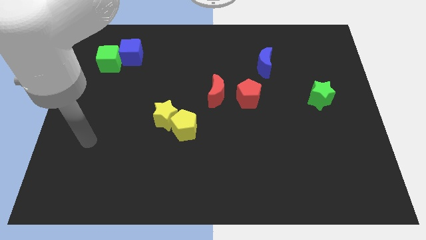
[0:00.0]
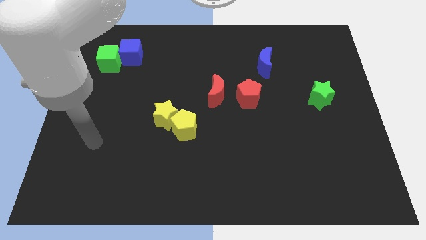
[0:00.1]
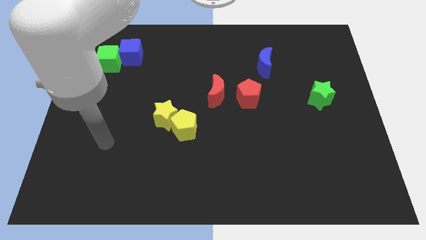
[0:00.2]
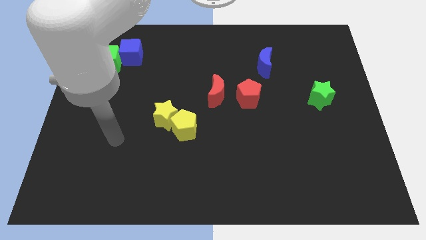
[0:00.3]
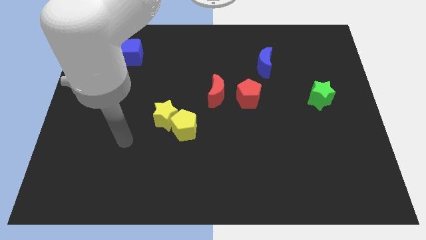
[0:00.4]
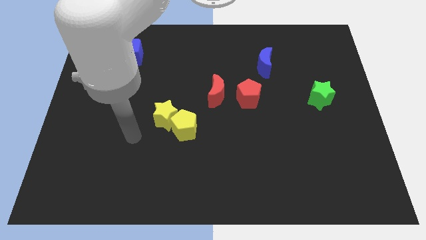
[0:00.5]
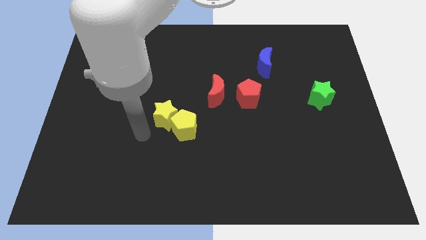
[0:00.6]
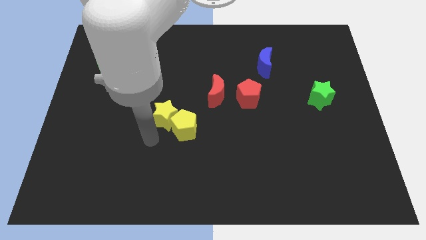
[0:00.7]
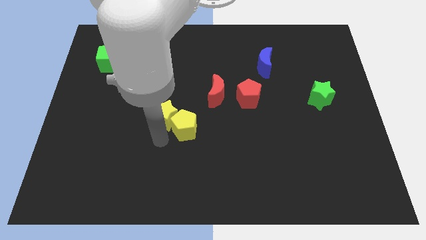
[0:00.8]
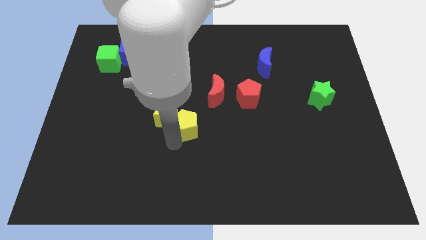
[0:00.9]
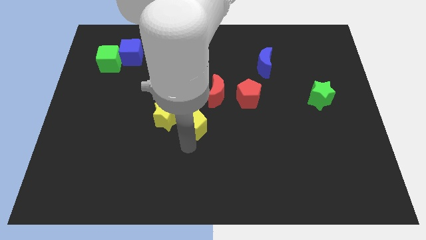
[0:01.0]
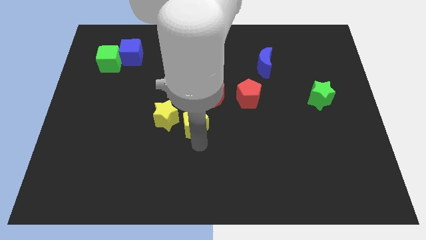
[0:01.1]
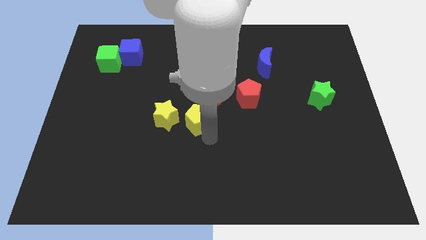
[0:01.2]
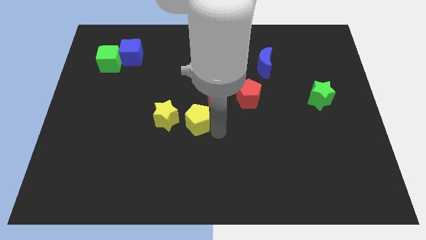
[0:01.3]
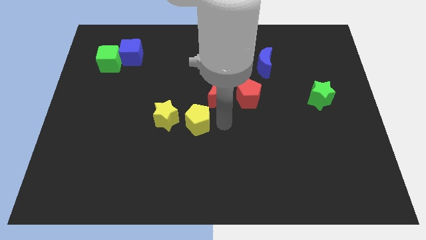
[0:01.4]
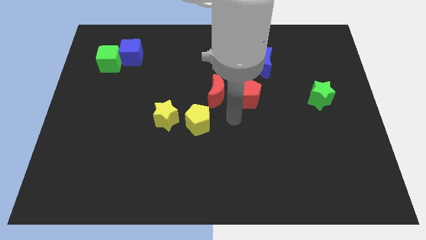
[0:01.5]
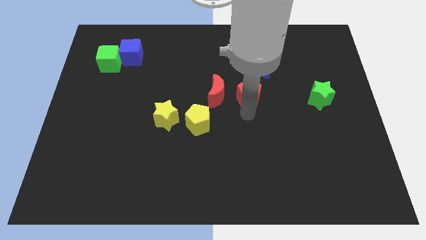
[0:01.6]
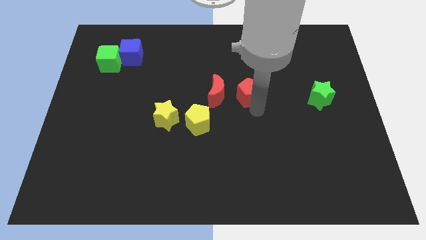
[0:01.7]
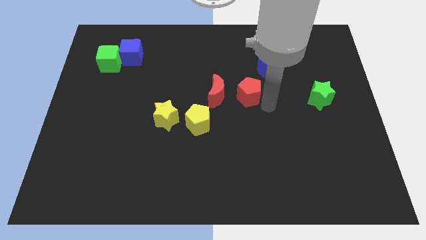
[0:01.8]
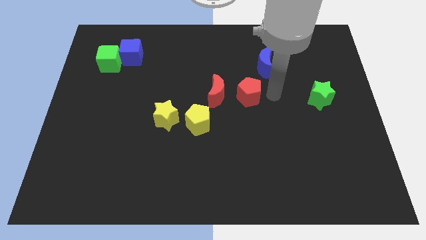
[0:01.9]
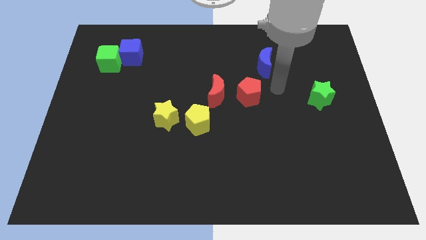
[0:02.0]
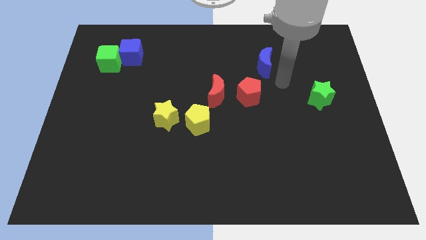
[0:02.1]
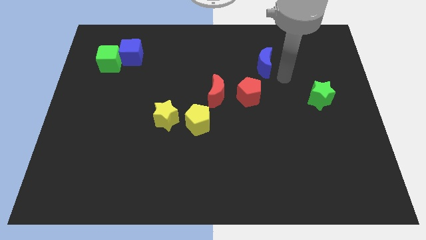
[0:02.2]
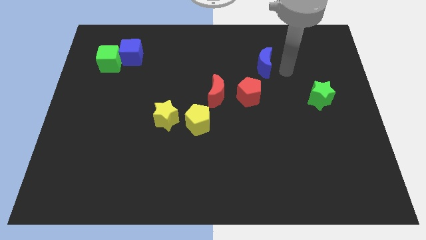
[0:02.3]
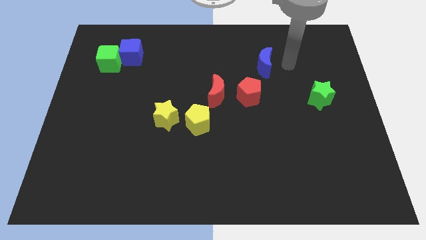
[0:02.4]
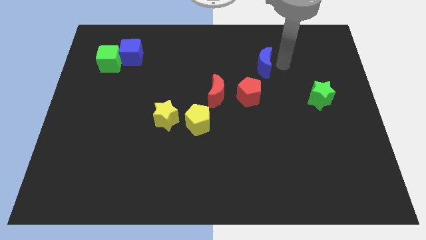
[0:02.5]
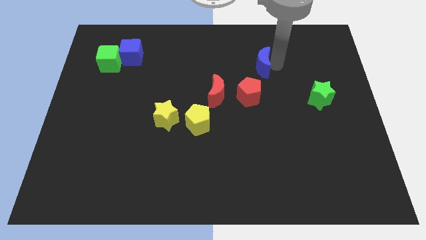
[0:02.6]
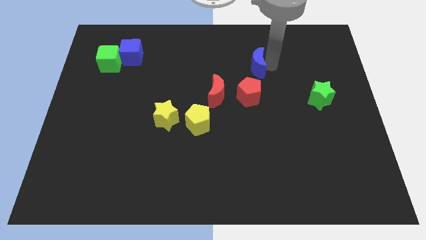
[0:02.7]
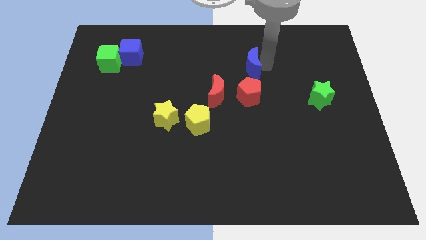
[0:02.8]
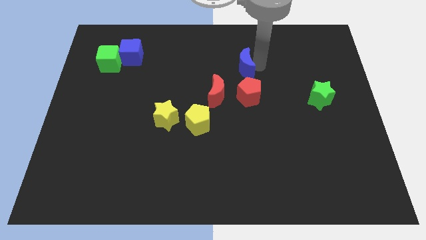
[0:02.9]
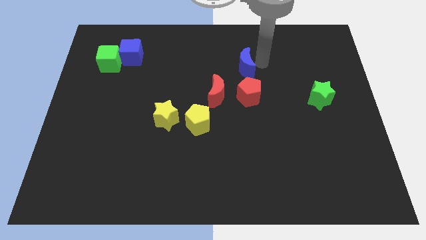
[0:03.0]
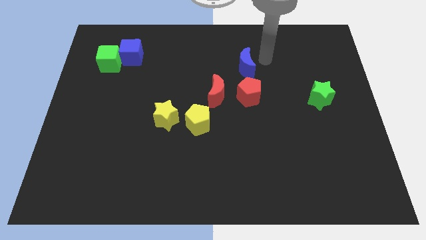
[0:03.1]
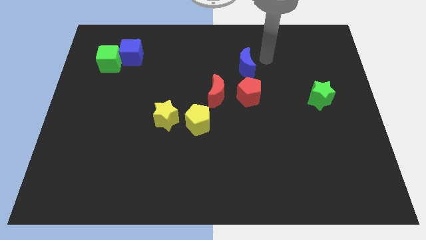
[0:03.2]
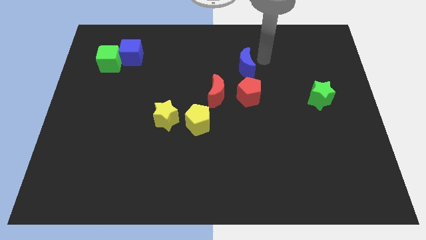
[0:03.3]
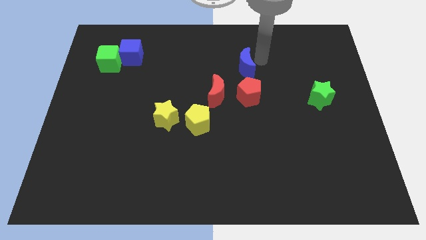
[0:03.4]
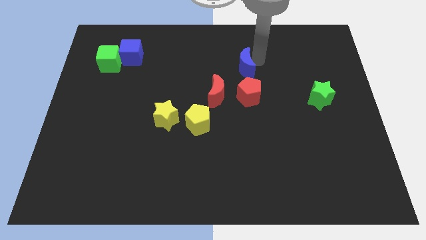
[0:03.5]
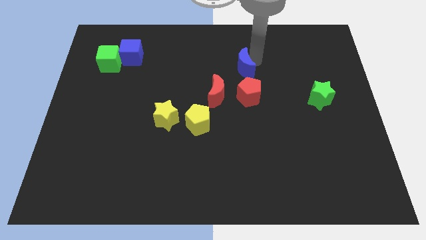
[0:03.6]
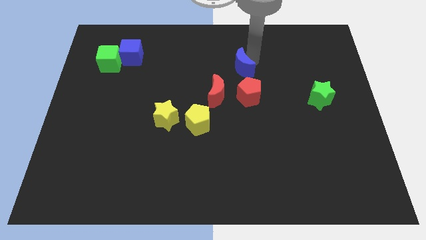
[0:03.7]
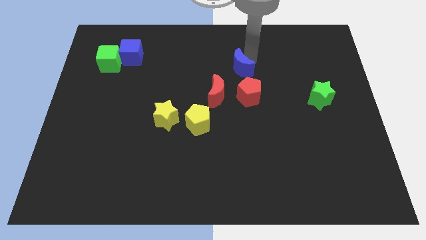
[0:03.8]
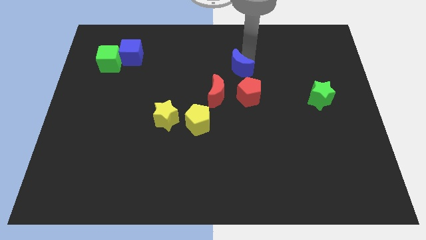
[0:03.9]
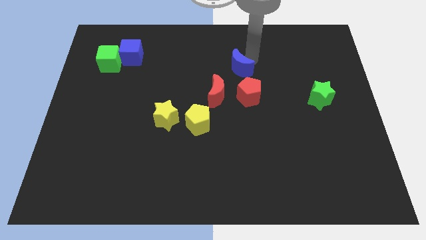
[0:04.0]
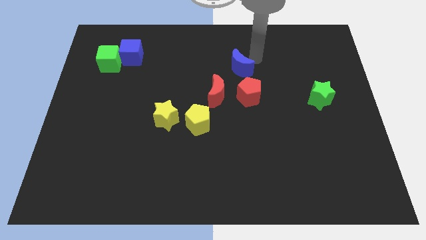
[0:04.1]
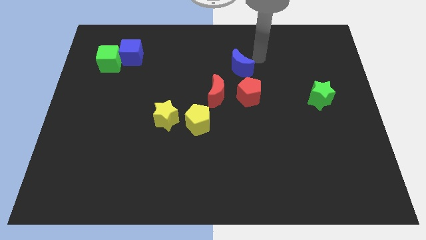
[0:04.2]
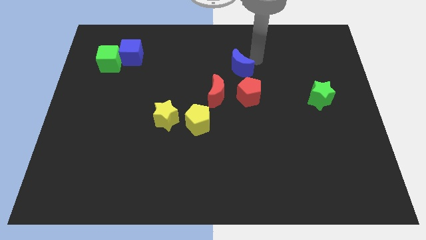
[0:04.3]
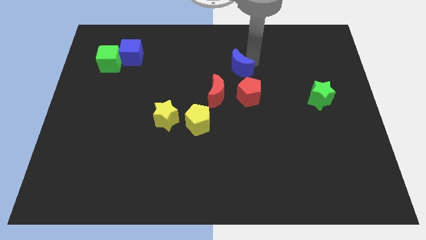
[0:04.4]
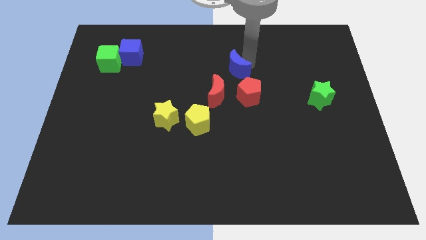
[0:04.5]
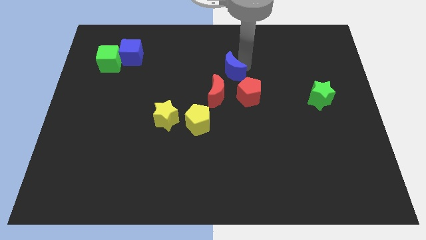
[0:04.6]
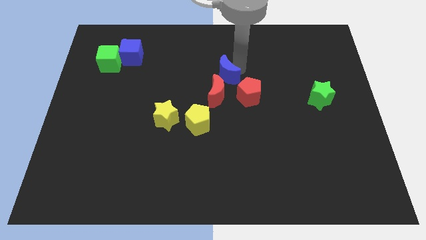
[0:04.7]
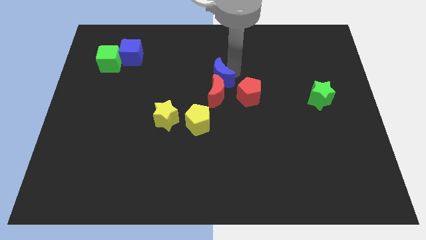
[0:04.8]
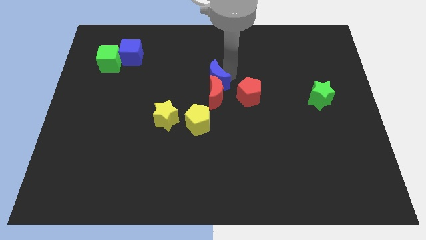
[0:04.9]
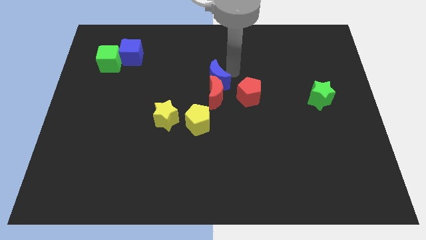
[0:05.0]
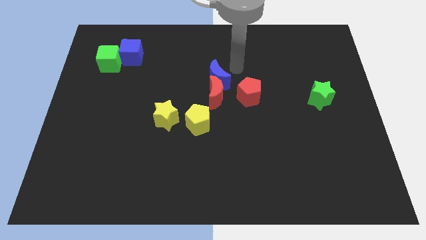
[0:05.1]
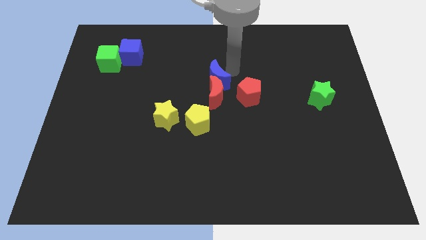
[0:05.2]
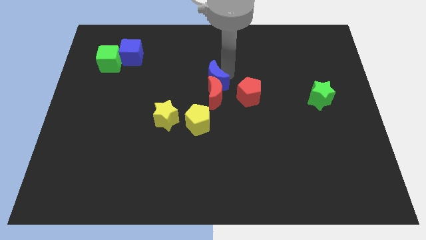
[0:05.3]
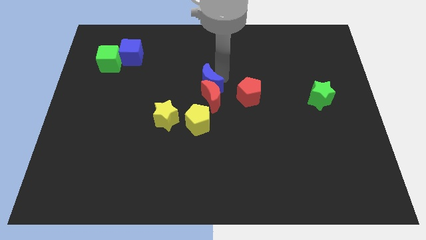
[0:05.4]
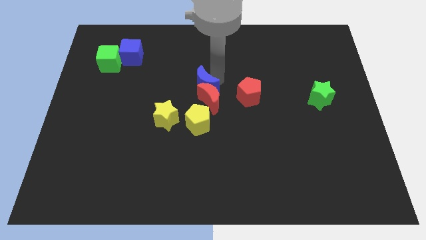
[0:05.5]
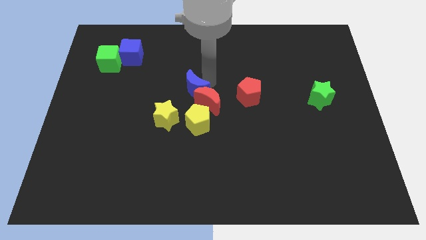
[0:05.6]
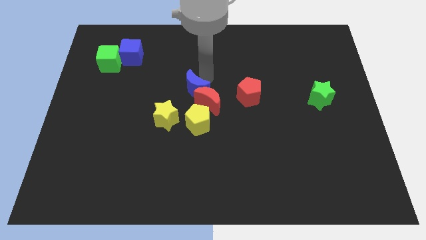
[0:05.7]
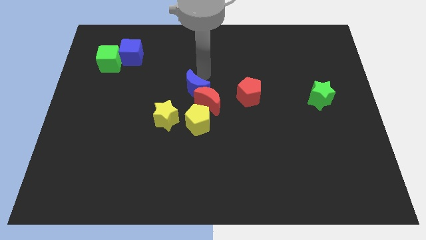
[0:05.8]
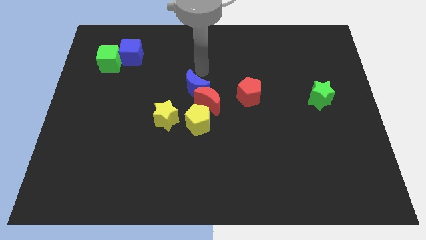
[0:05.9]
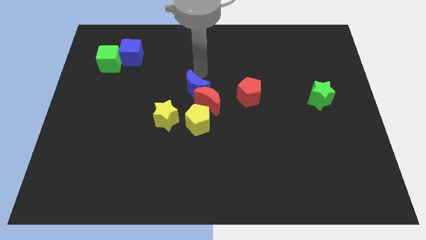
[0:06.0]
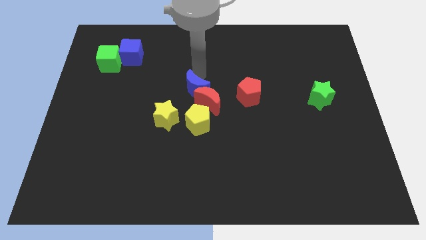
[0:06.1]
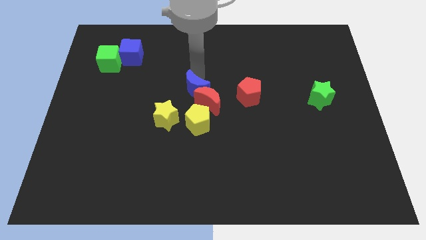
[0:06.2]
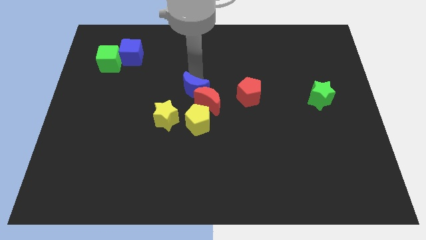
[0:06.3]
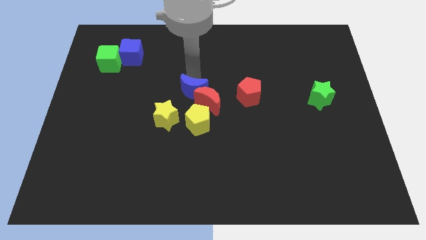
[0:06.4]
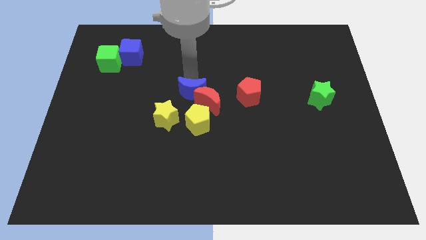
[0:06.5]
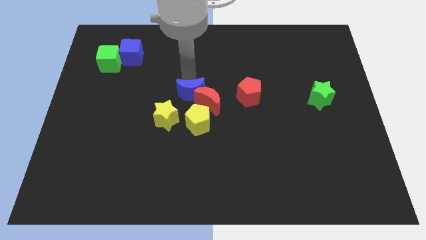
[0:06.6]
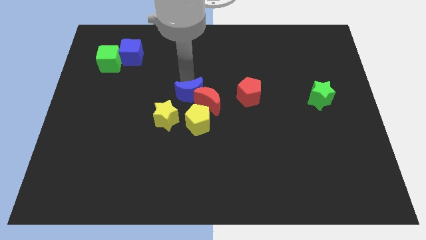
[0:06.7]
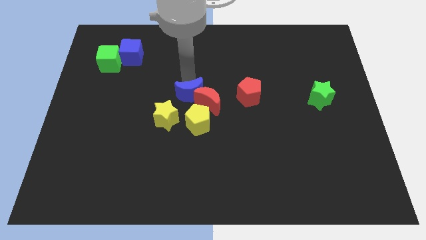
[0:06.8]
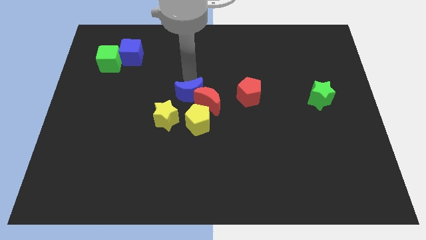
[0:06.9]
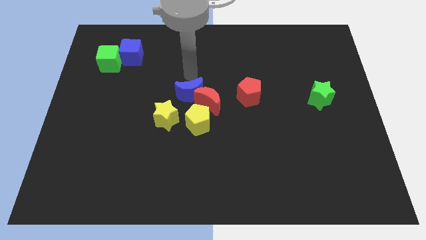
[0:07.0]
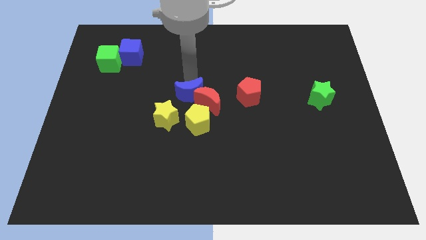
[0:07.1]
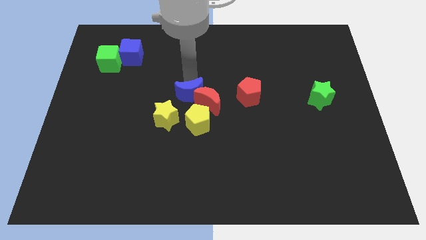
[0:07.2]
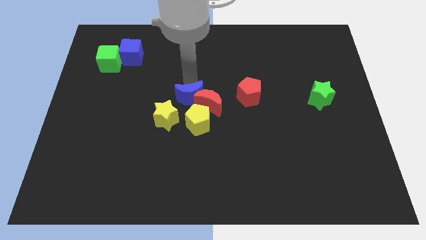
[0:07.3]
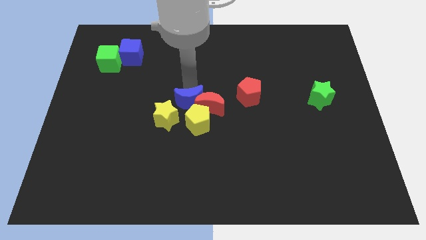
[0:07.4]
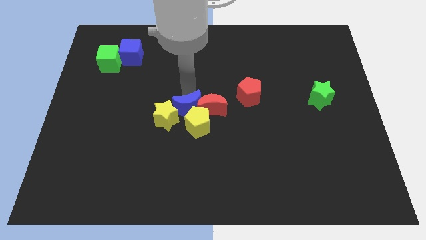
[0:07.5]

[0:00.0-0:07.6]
move the blue moon next to the yellow pentagon
